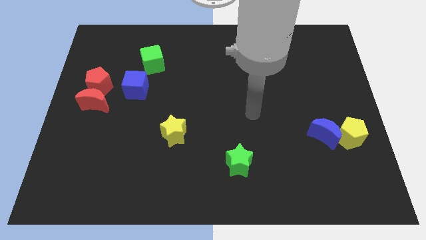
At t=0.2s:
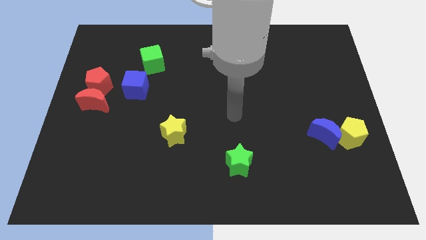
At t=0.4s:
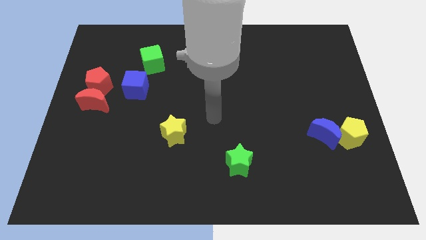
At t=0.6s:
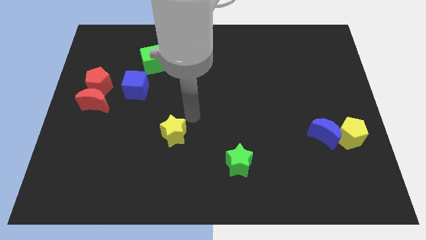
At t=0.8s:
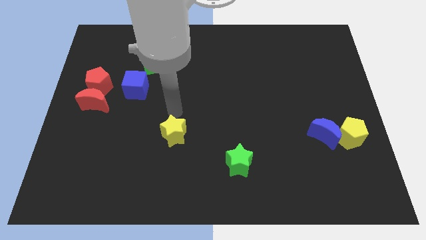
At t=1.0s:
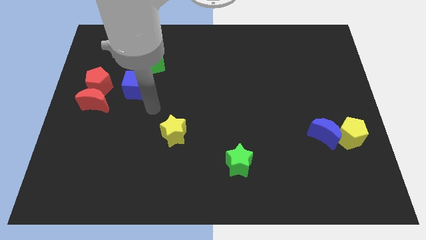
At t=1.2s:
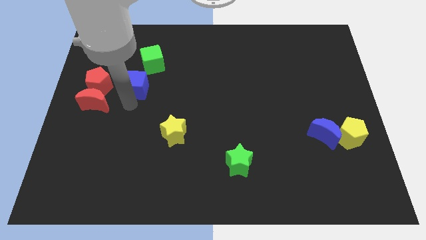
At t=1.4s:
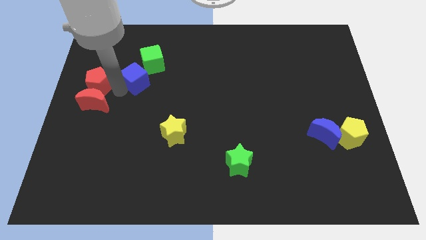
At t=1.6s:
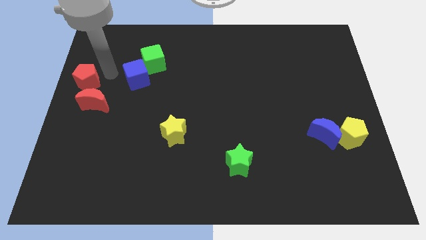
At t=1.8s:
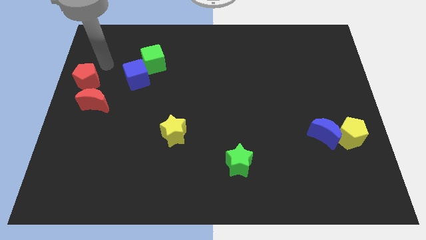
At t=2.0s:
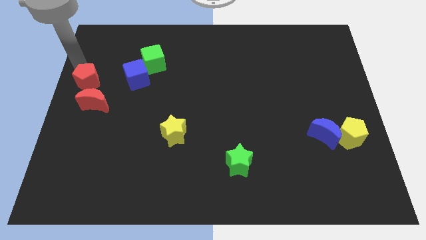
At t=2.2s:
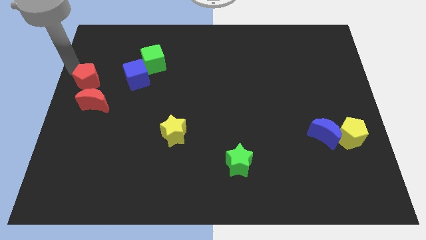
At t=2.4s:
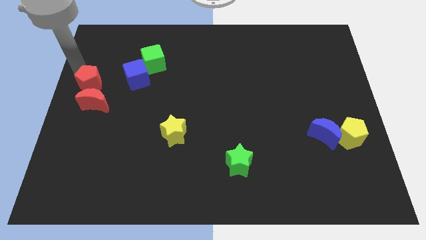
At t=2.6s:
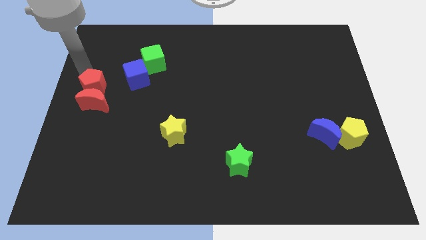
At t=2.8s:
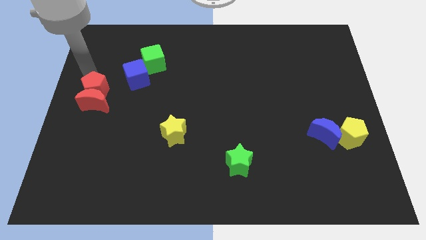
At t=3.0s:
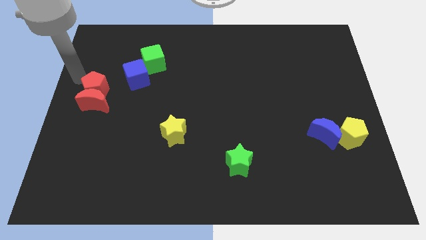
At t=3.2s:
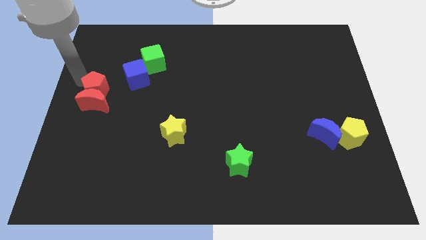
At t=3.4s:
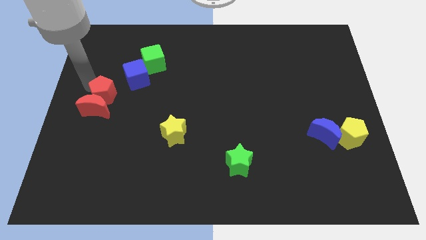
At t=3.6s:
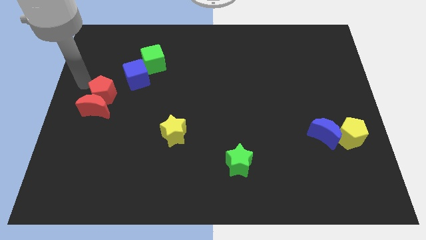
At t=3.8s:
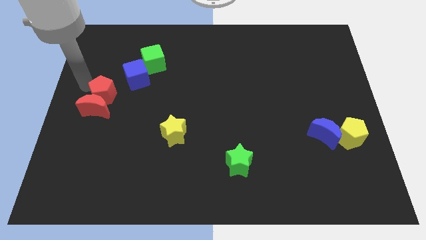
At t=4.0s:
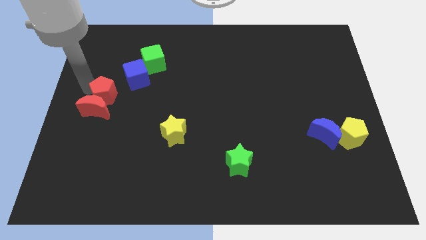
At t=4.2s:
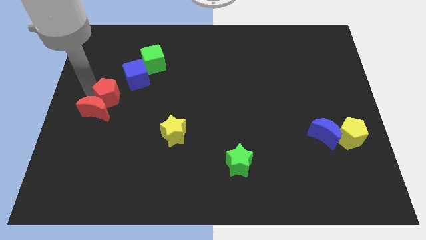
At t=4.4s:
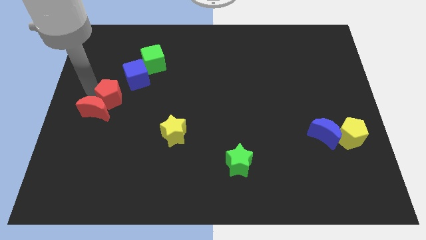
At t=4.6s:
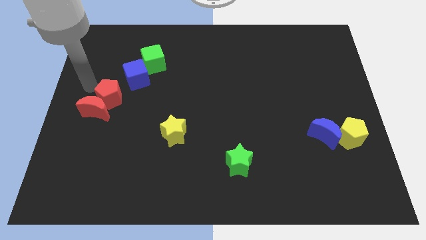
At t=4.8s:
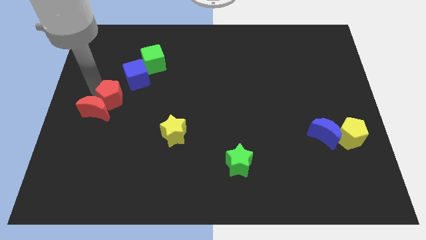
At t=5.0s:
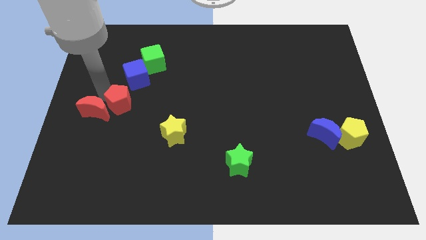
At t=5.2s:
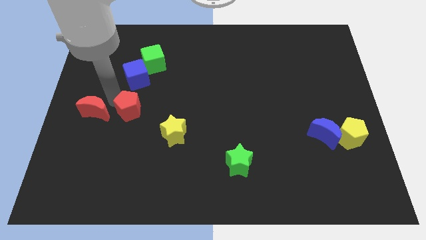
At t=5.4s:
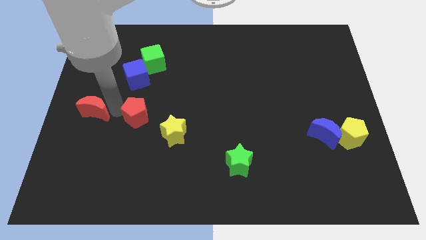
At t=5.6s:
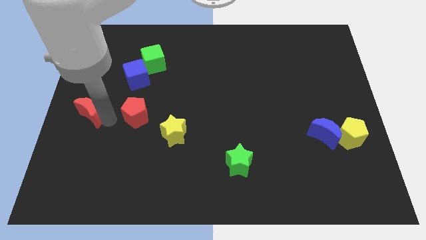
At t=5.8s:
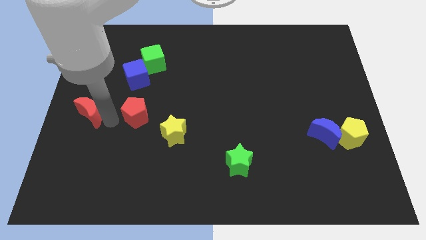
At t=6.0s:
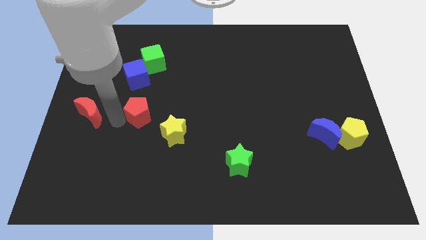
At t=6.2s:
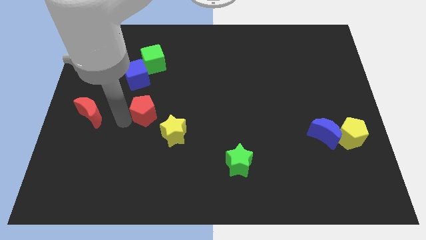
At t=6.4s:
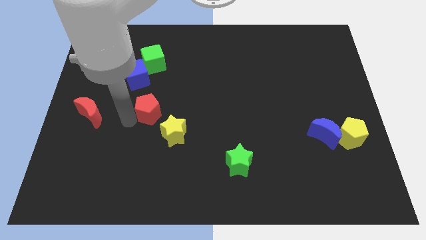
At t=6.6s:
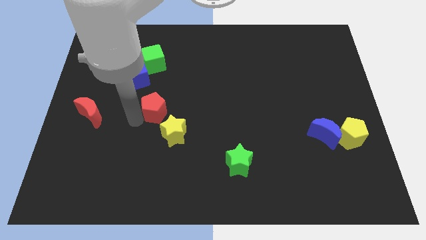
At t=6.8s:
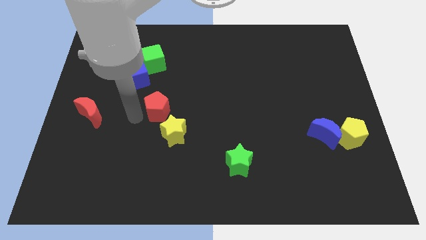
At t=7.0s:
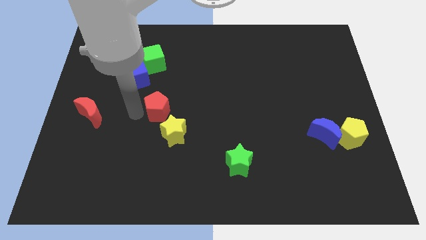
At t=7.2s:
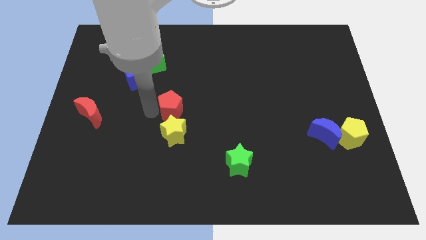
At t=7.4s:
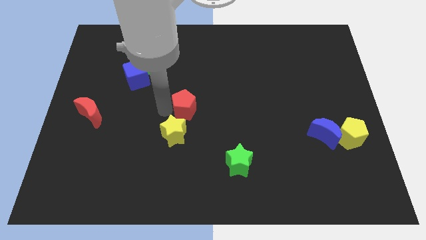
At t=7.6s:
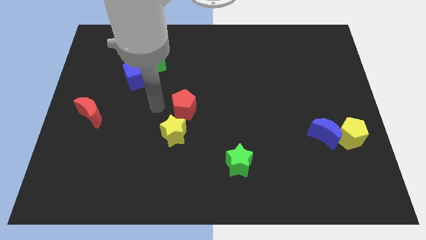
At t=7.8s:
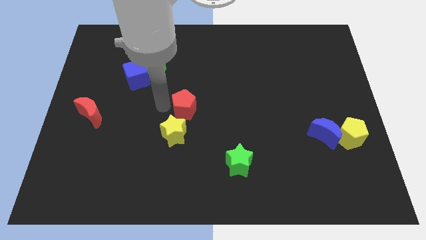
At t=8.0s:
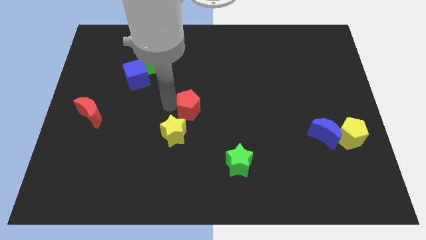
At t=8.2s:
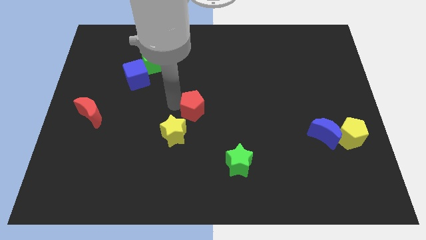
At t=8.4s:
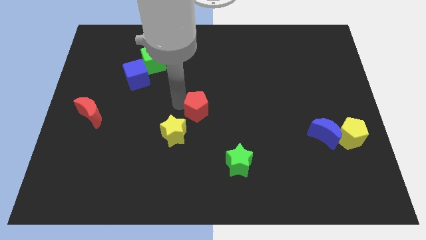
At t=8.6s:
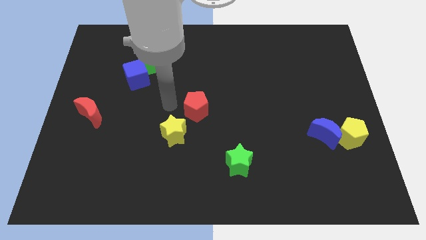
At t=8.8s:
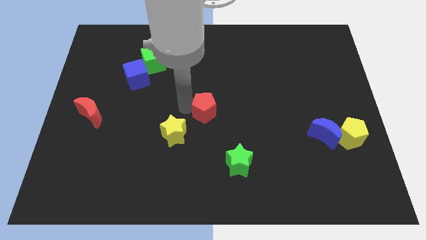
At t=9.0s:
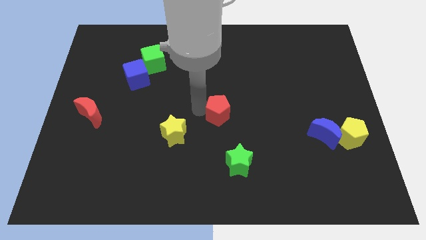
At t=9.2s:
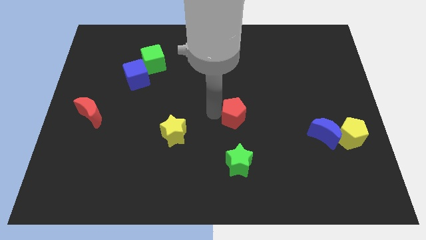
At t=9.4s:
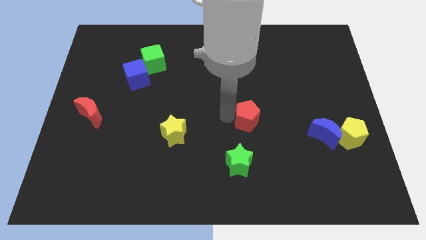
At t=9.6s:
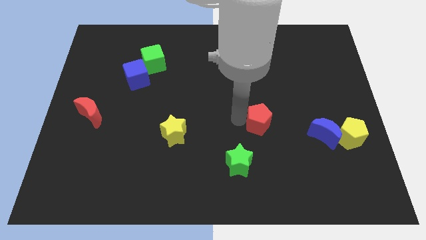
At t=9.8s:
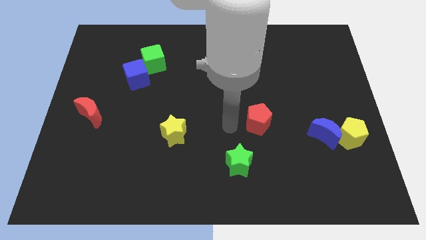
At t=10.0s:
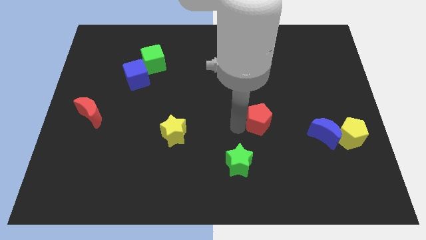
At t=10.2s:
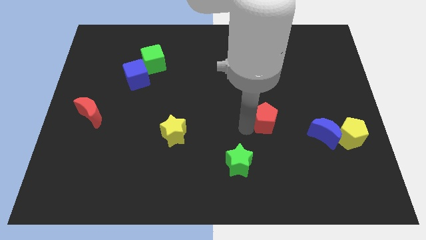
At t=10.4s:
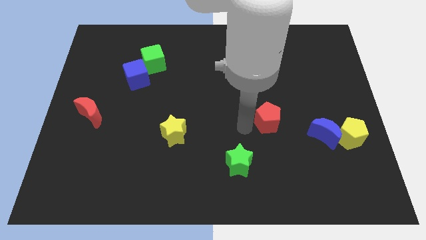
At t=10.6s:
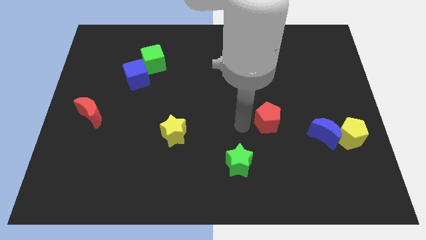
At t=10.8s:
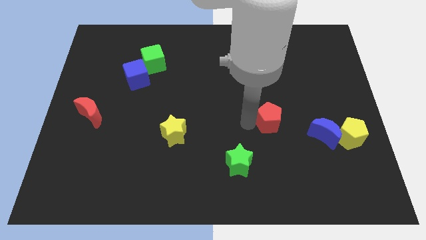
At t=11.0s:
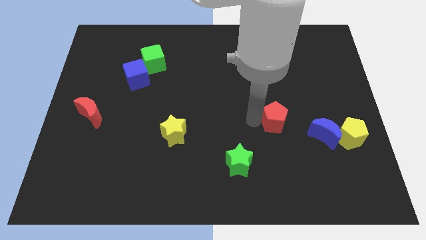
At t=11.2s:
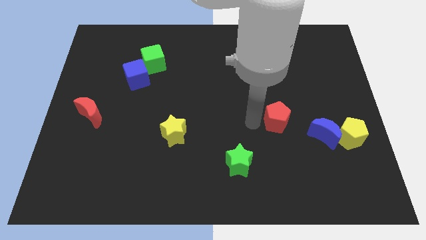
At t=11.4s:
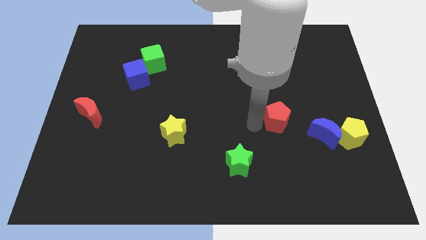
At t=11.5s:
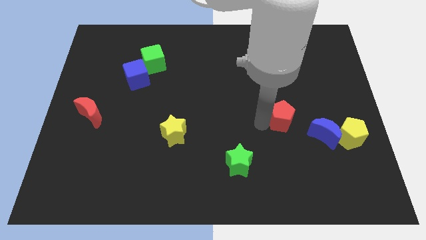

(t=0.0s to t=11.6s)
move the red pentagon diagonally up and to the left of the blue moon

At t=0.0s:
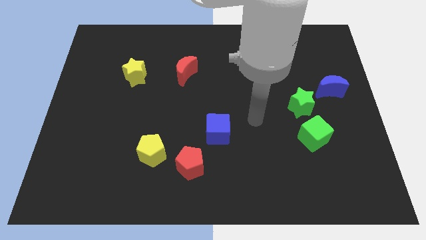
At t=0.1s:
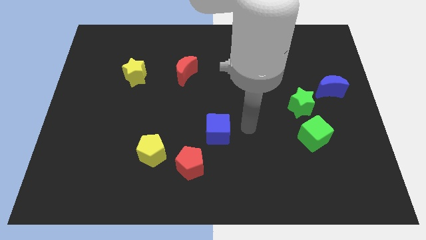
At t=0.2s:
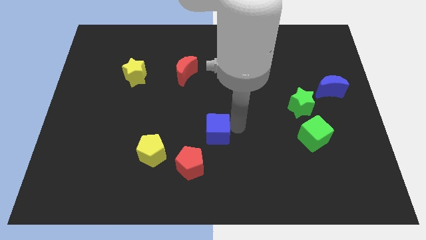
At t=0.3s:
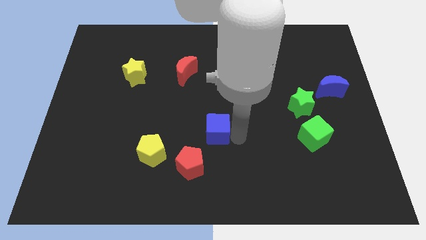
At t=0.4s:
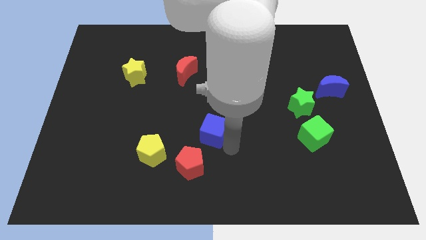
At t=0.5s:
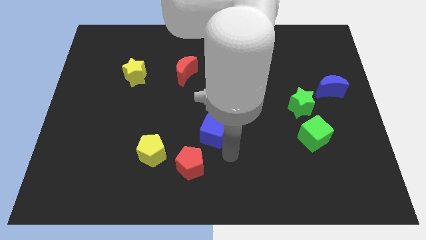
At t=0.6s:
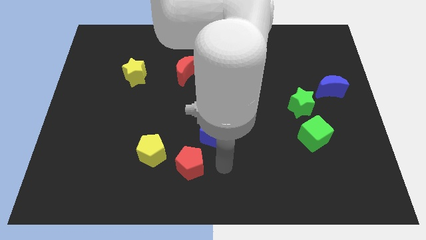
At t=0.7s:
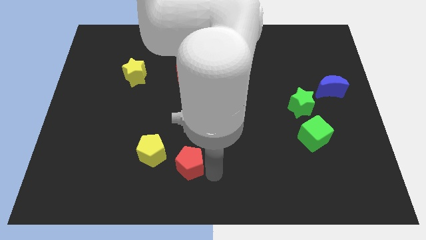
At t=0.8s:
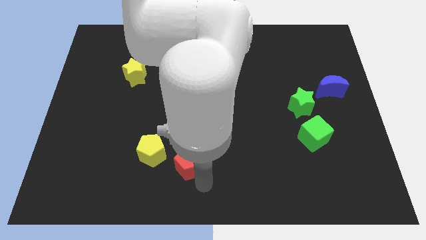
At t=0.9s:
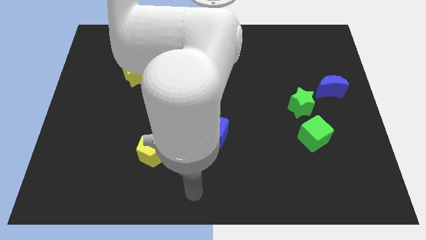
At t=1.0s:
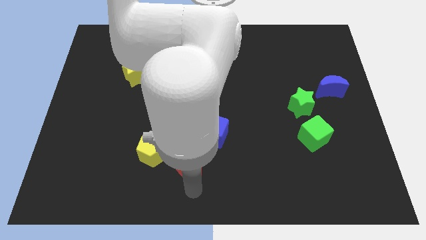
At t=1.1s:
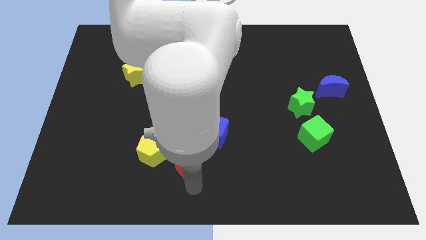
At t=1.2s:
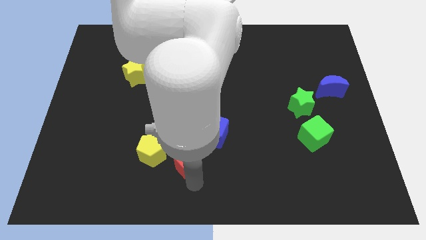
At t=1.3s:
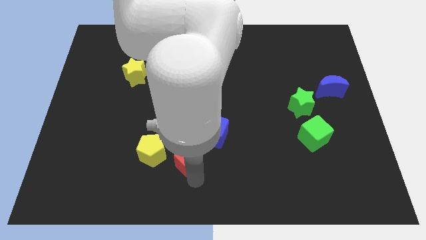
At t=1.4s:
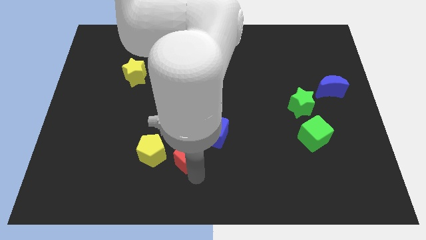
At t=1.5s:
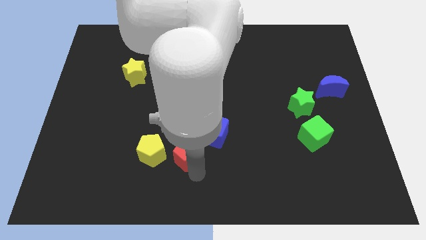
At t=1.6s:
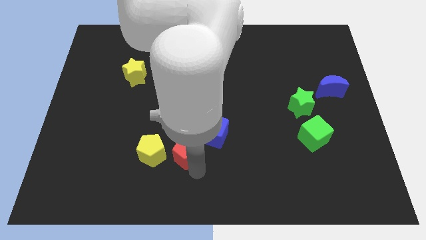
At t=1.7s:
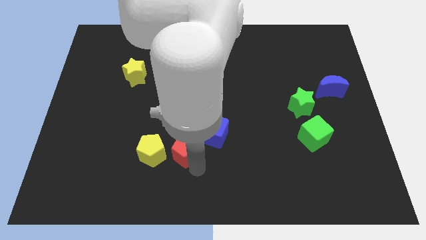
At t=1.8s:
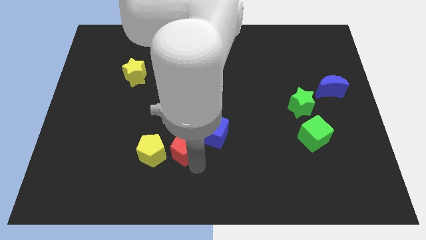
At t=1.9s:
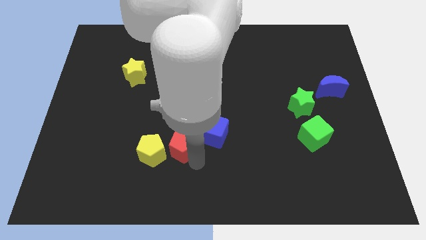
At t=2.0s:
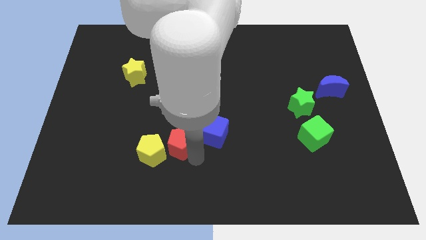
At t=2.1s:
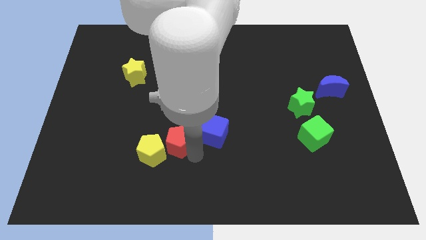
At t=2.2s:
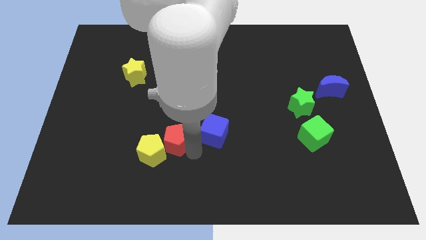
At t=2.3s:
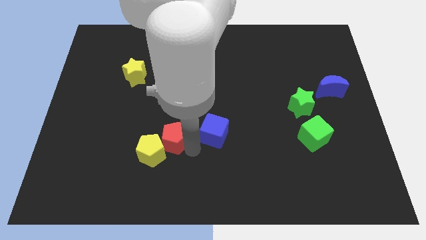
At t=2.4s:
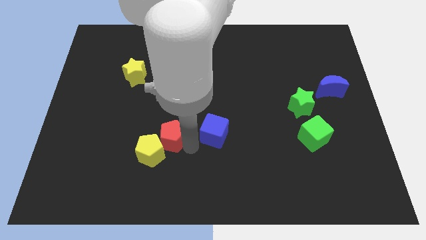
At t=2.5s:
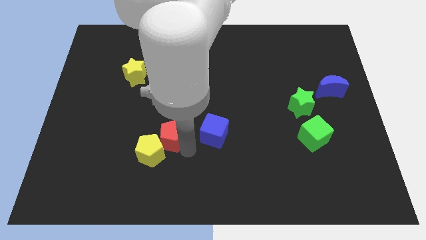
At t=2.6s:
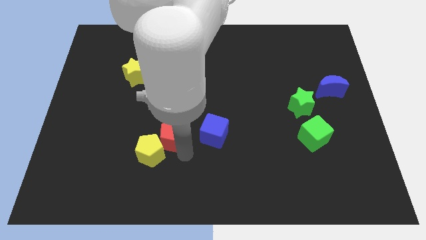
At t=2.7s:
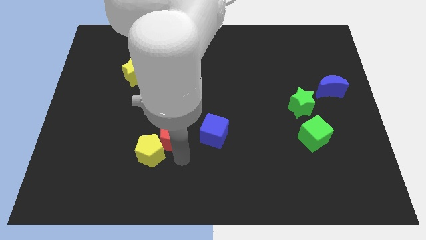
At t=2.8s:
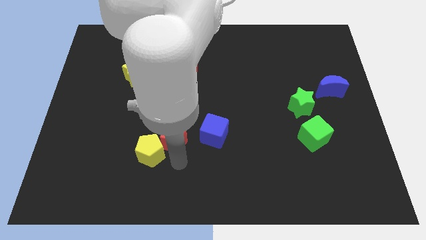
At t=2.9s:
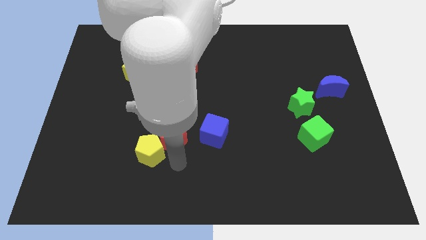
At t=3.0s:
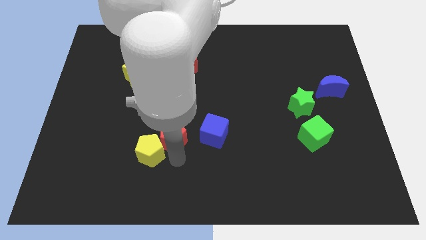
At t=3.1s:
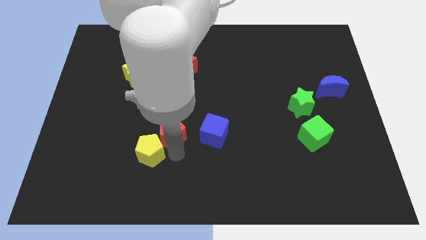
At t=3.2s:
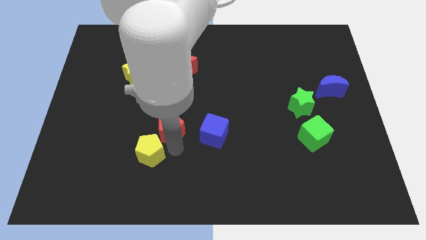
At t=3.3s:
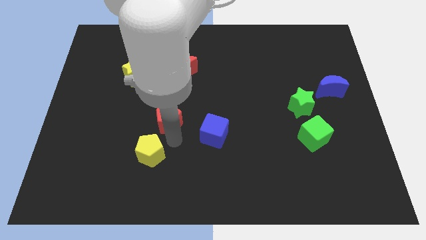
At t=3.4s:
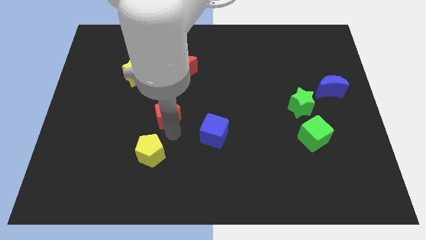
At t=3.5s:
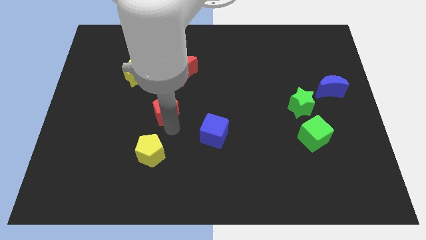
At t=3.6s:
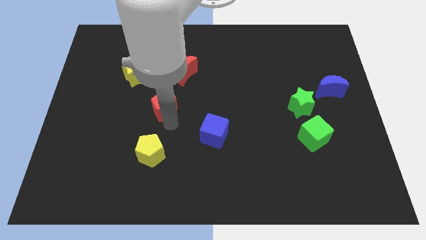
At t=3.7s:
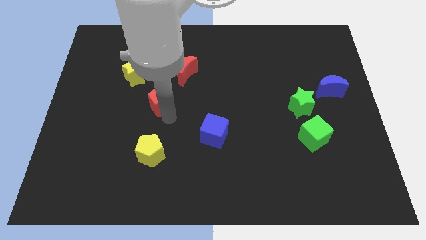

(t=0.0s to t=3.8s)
push the red pentagon to the bottom right of the yellow star
